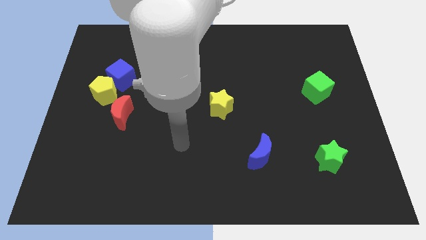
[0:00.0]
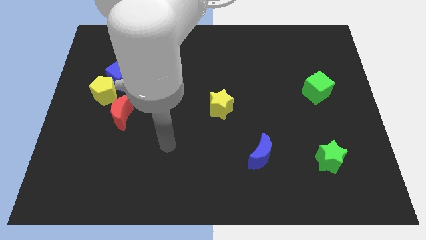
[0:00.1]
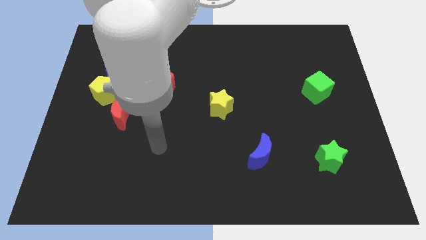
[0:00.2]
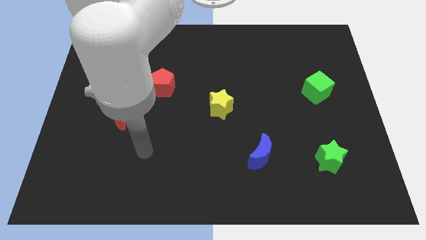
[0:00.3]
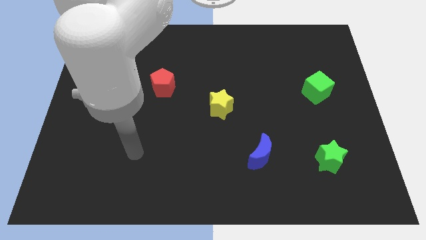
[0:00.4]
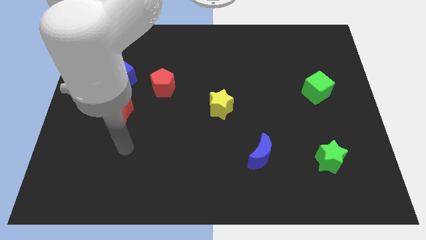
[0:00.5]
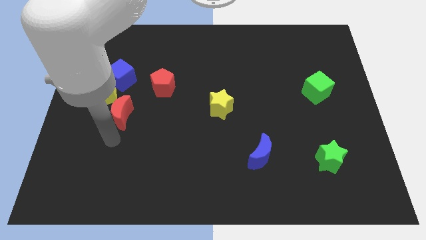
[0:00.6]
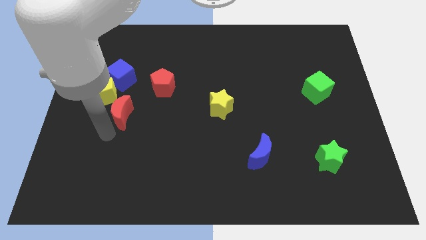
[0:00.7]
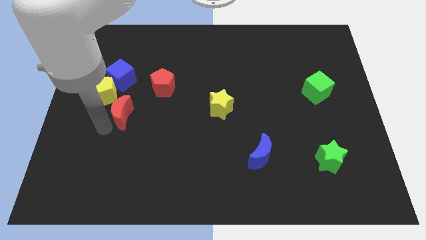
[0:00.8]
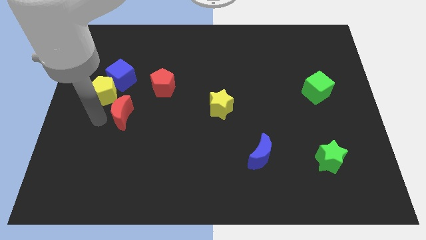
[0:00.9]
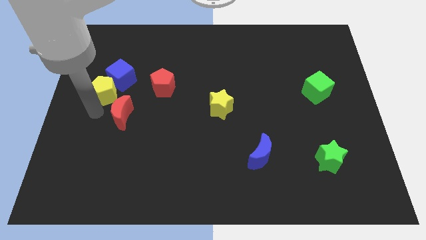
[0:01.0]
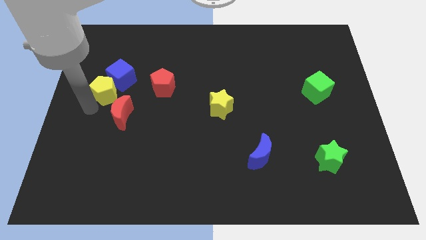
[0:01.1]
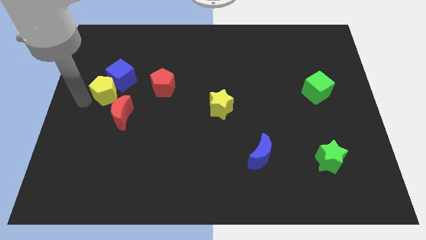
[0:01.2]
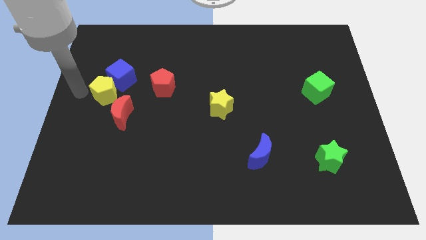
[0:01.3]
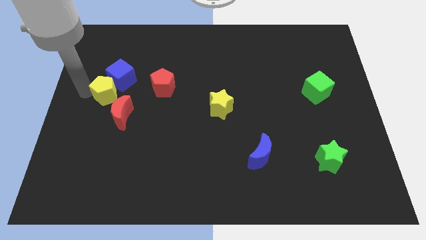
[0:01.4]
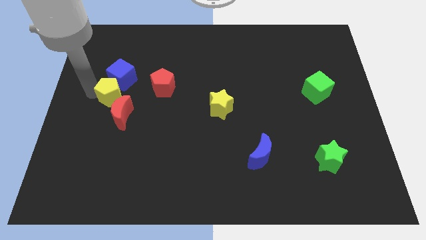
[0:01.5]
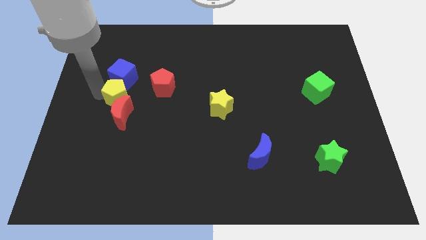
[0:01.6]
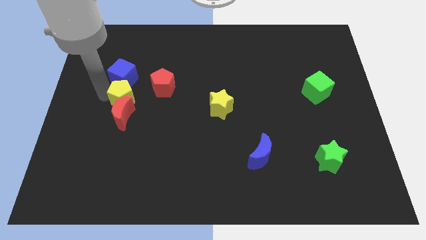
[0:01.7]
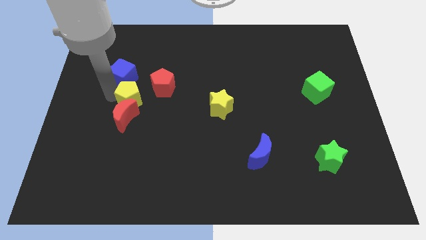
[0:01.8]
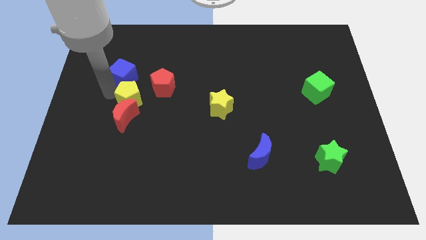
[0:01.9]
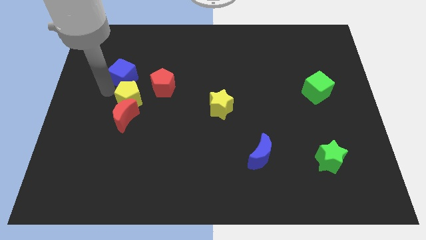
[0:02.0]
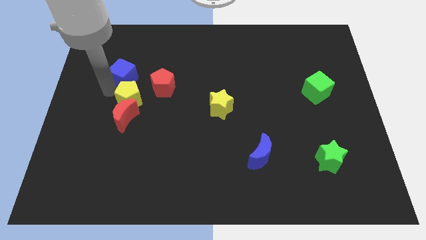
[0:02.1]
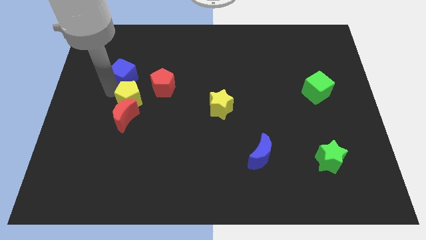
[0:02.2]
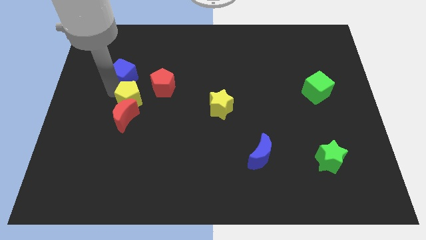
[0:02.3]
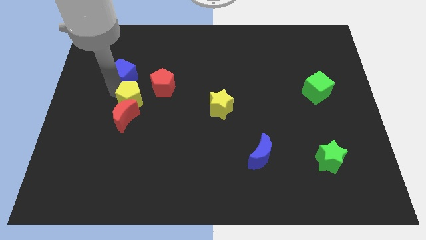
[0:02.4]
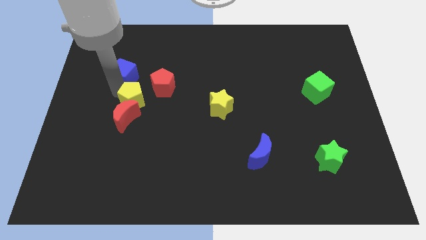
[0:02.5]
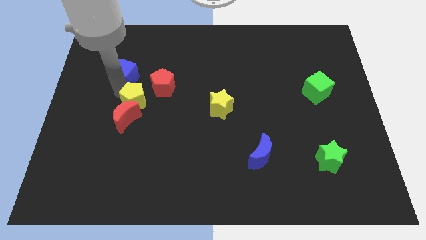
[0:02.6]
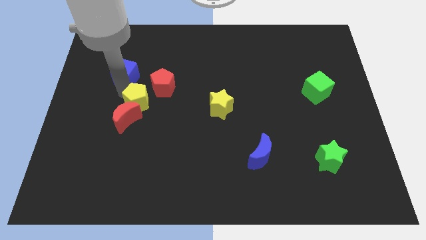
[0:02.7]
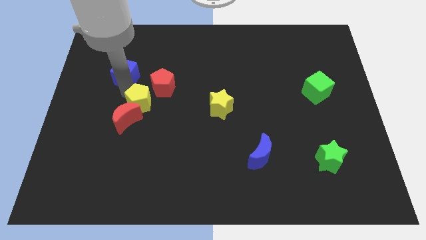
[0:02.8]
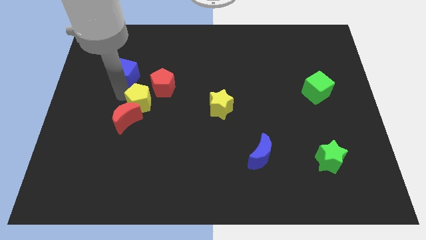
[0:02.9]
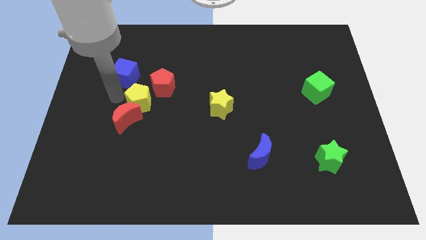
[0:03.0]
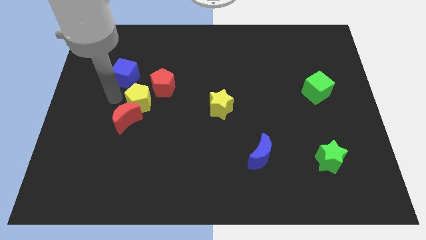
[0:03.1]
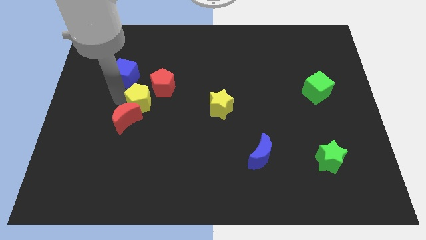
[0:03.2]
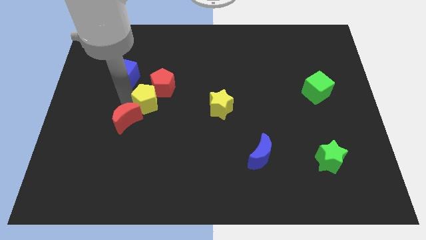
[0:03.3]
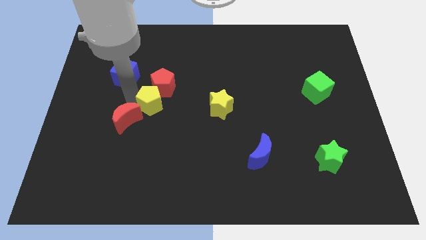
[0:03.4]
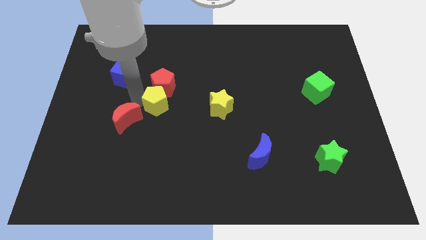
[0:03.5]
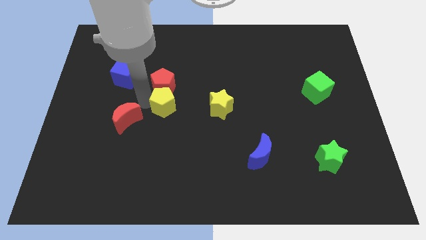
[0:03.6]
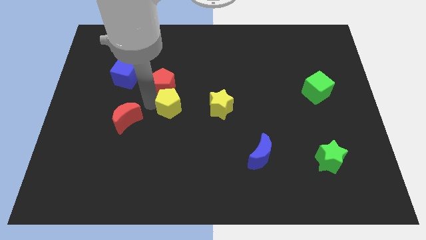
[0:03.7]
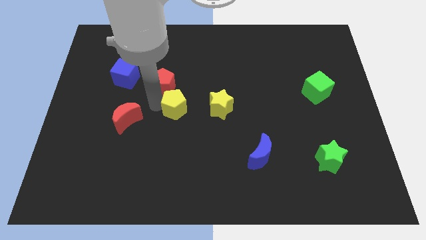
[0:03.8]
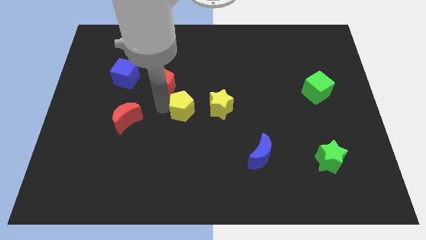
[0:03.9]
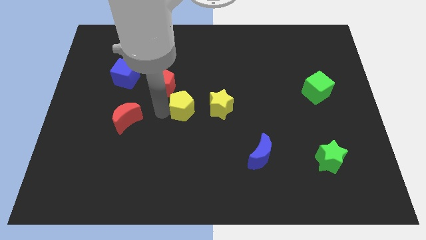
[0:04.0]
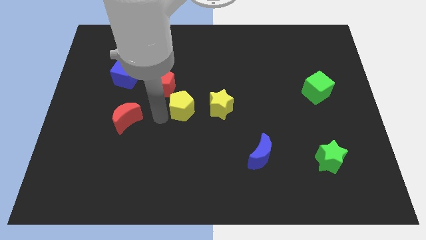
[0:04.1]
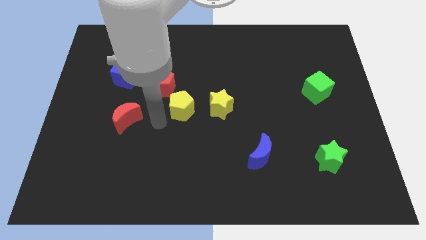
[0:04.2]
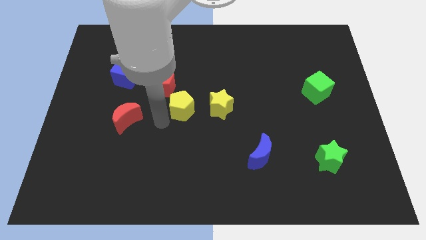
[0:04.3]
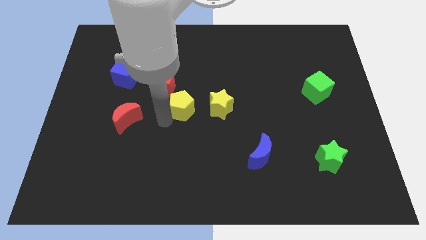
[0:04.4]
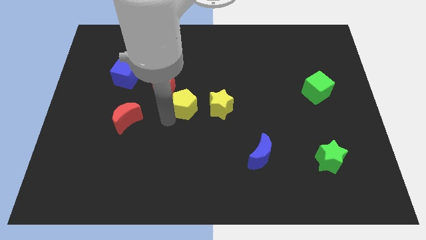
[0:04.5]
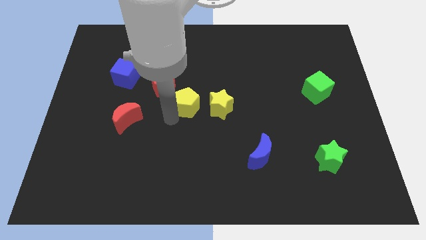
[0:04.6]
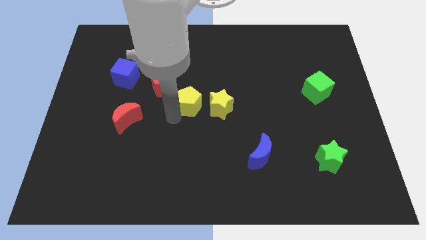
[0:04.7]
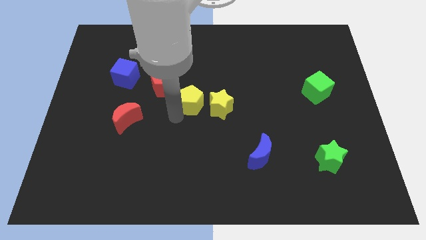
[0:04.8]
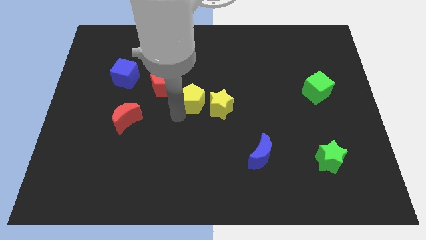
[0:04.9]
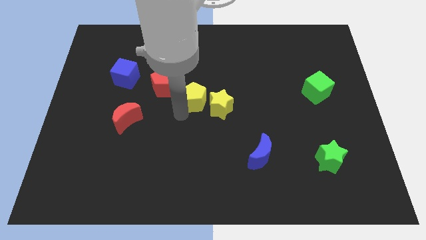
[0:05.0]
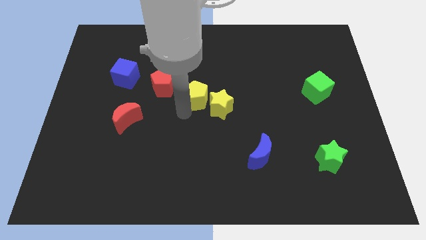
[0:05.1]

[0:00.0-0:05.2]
move the yellow pentagon to the yellow star

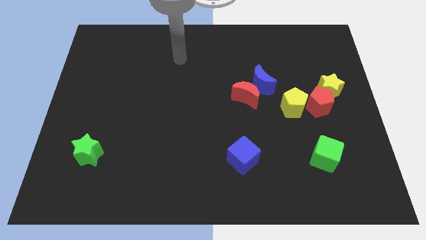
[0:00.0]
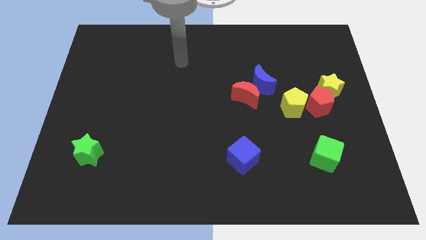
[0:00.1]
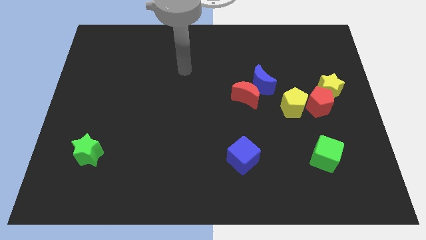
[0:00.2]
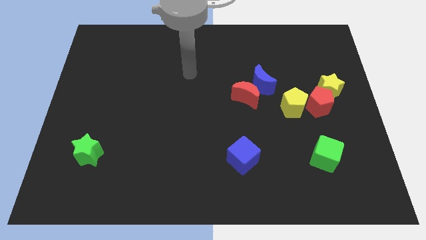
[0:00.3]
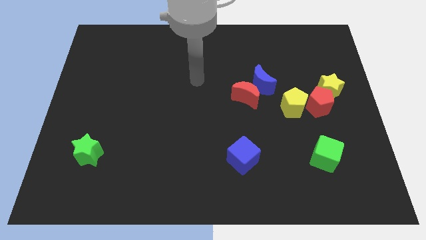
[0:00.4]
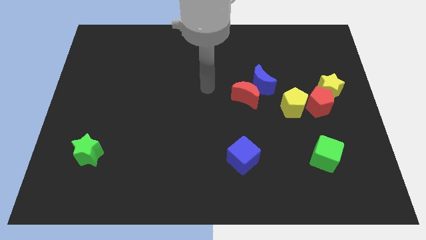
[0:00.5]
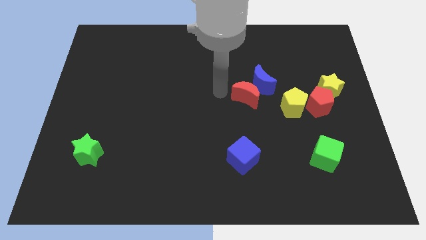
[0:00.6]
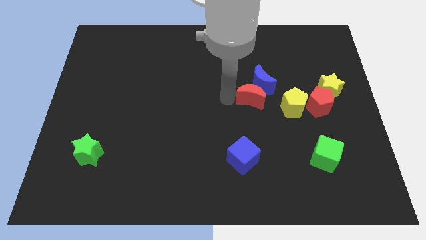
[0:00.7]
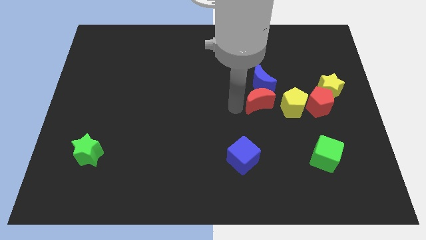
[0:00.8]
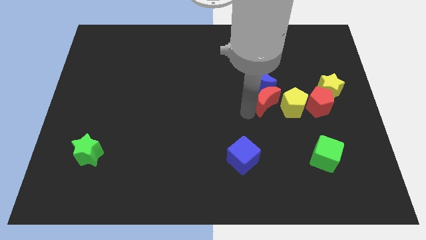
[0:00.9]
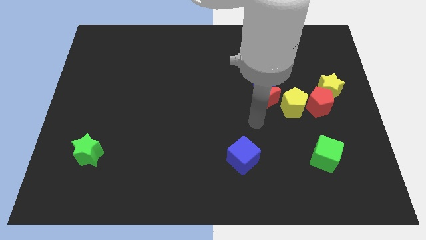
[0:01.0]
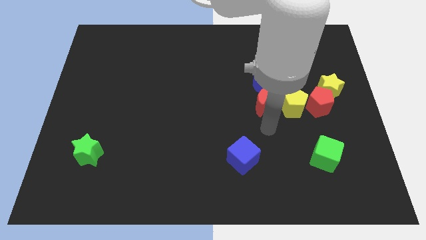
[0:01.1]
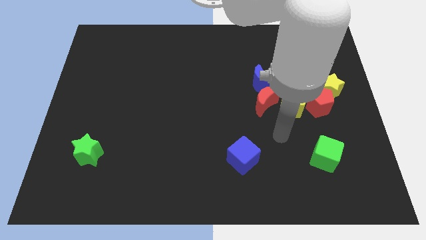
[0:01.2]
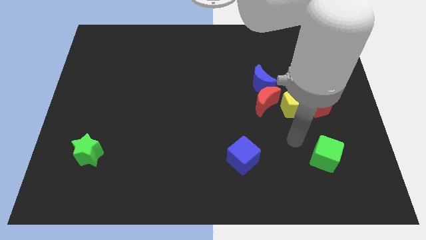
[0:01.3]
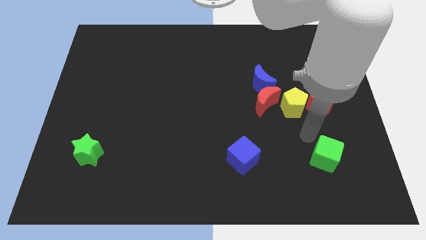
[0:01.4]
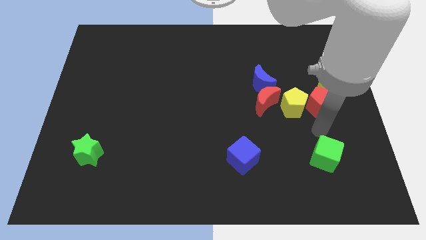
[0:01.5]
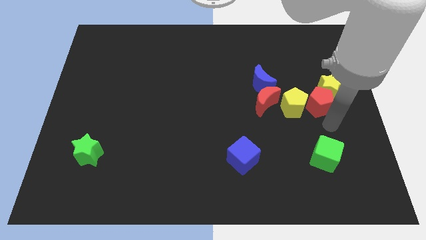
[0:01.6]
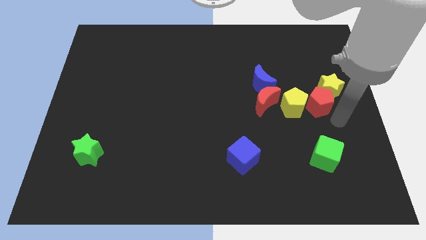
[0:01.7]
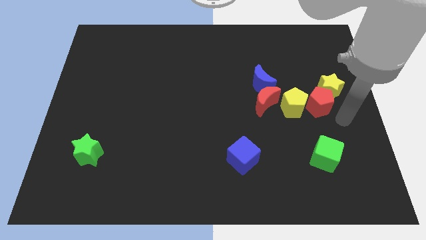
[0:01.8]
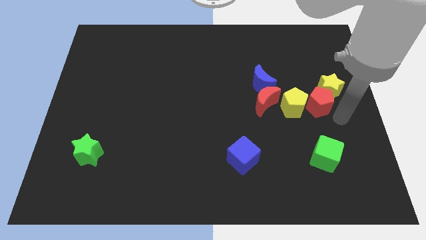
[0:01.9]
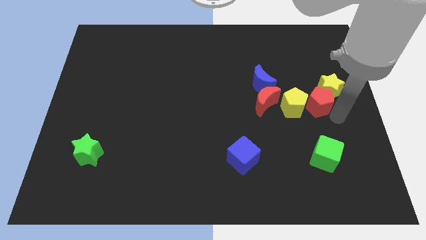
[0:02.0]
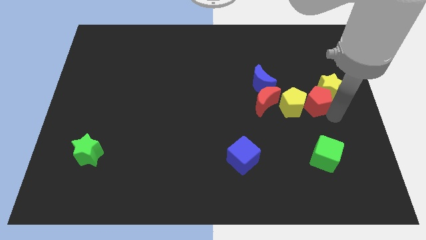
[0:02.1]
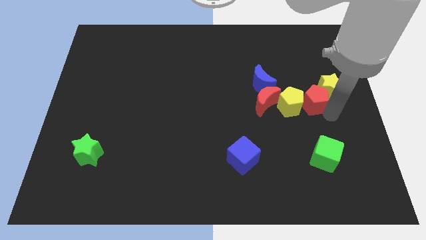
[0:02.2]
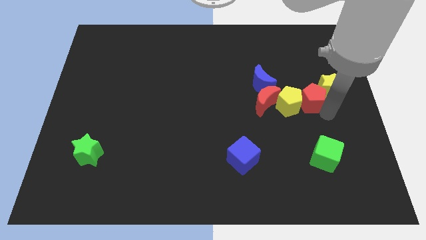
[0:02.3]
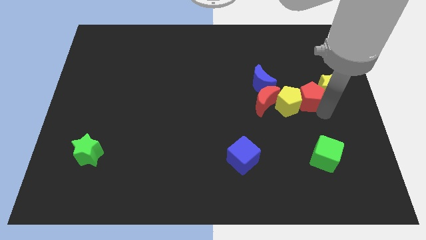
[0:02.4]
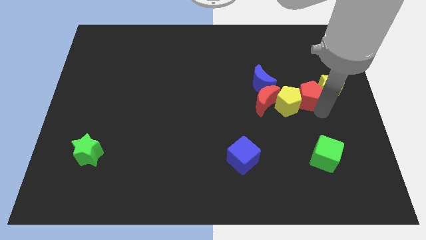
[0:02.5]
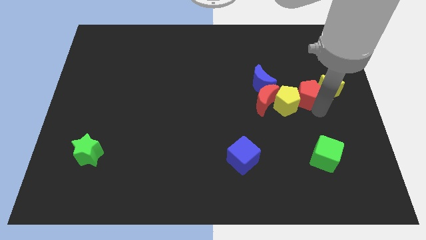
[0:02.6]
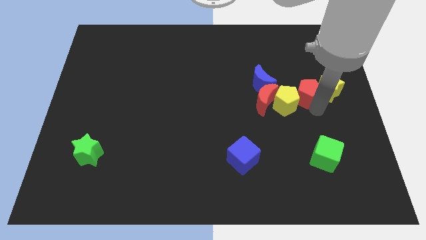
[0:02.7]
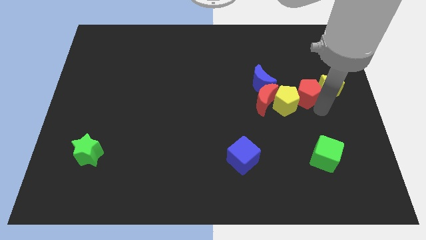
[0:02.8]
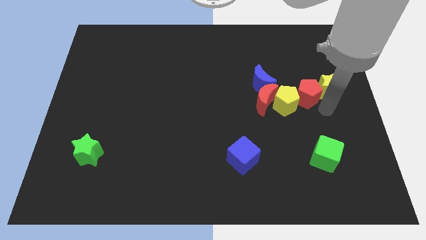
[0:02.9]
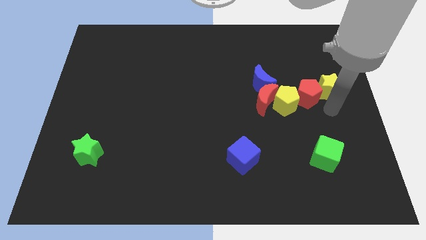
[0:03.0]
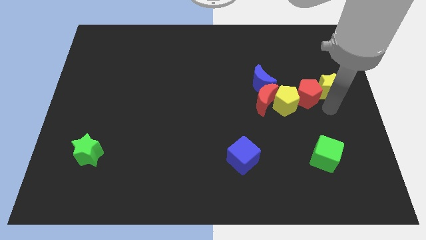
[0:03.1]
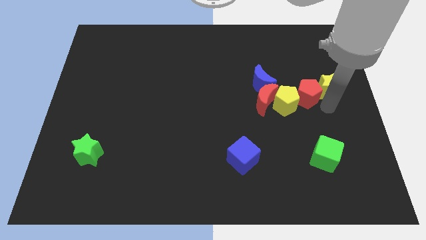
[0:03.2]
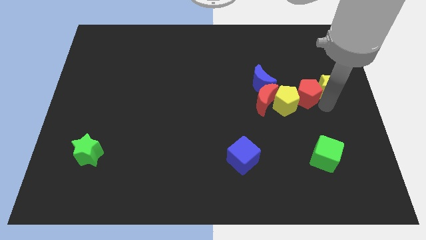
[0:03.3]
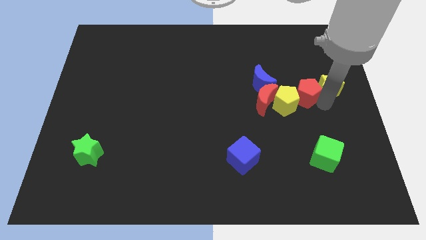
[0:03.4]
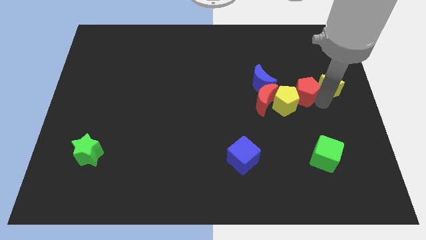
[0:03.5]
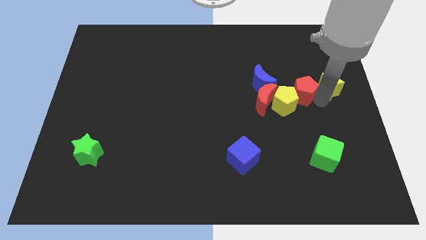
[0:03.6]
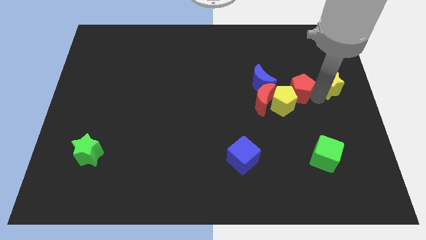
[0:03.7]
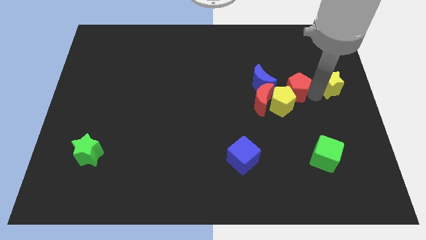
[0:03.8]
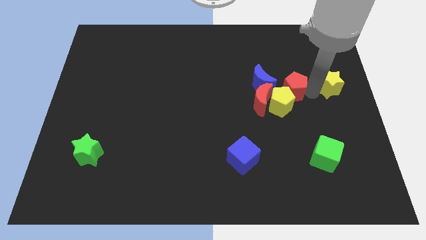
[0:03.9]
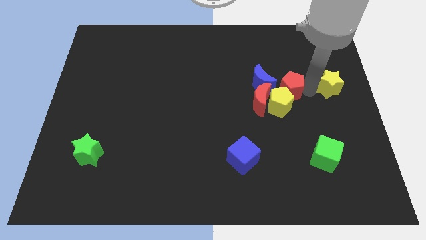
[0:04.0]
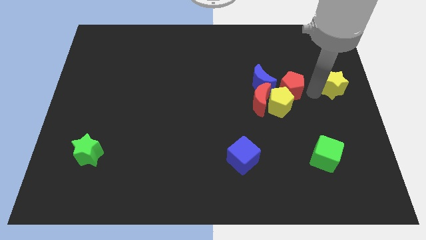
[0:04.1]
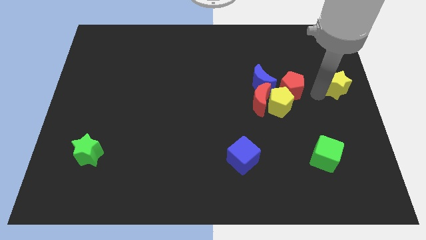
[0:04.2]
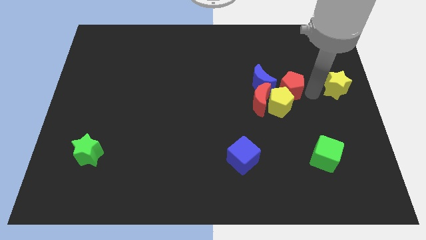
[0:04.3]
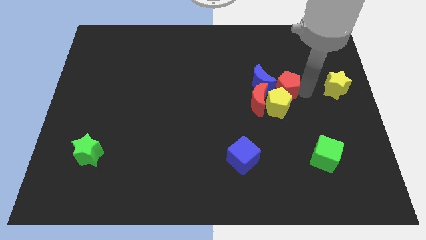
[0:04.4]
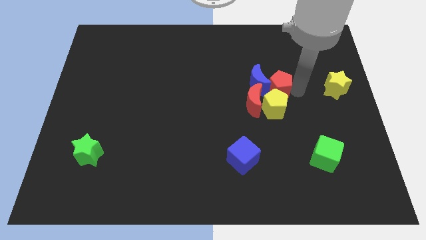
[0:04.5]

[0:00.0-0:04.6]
put the red pentagon to the blue moon
